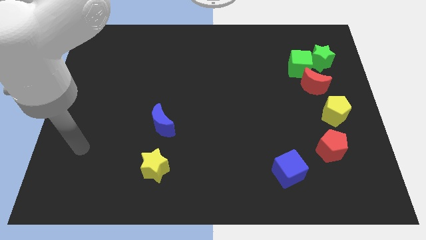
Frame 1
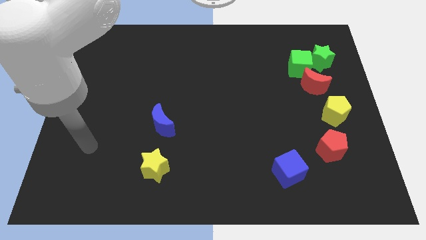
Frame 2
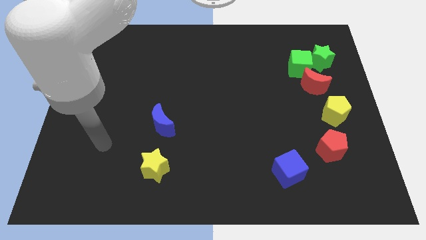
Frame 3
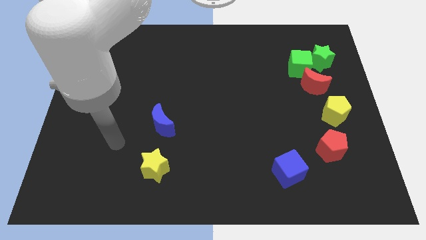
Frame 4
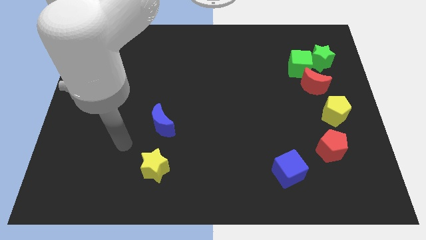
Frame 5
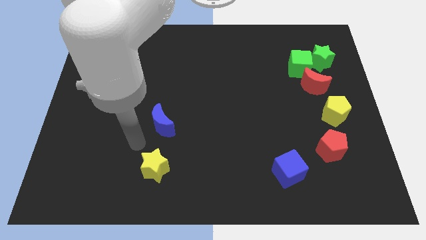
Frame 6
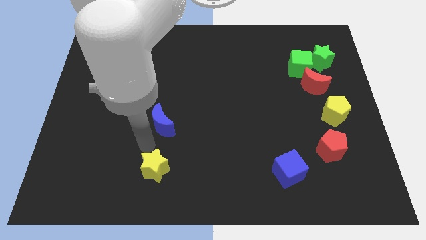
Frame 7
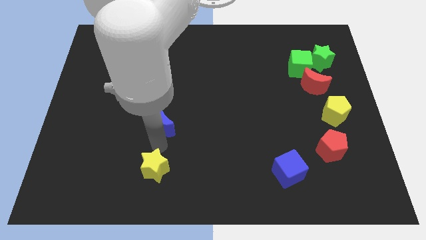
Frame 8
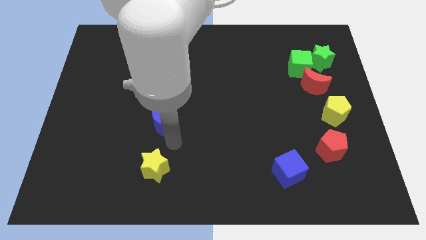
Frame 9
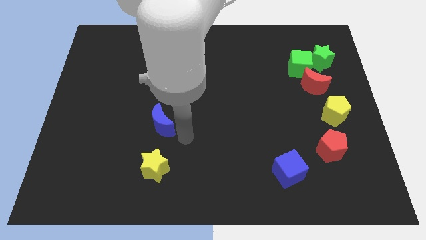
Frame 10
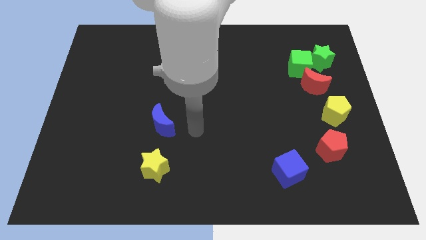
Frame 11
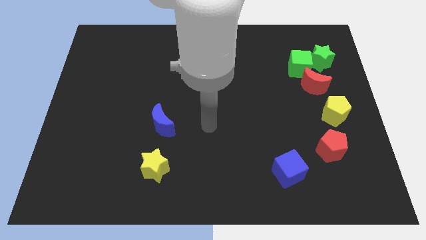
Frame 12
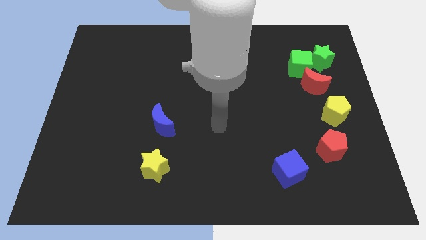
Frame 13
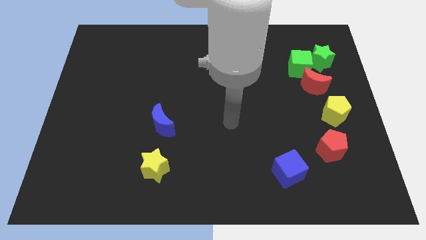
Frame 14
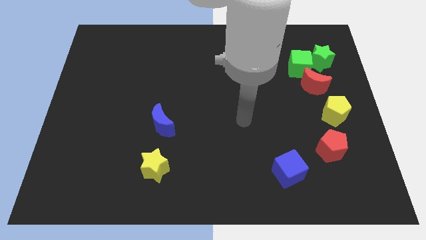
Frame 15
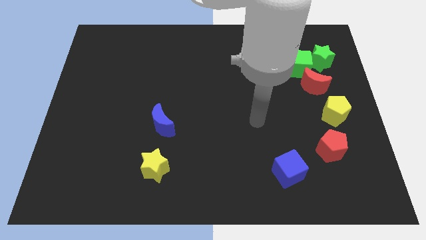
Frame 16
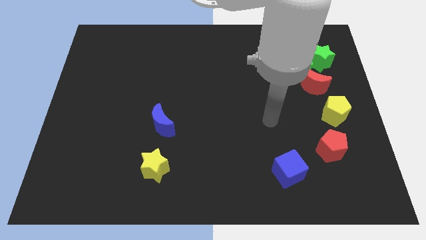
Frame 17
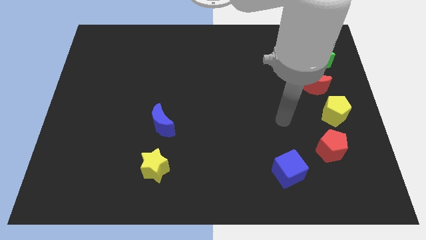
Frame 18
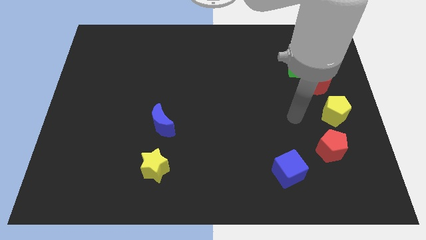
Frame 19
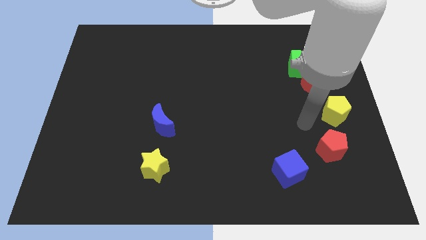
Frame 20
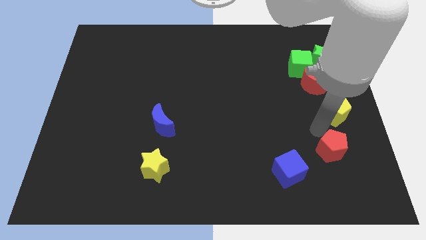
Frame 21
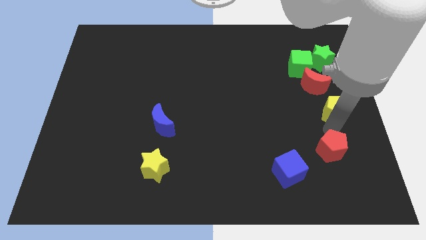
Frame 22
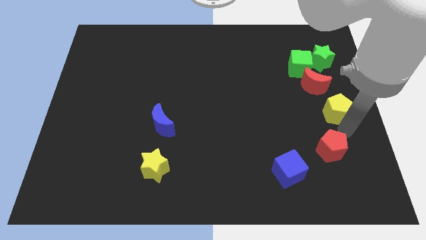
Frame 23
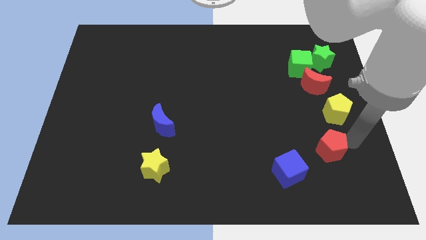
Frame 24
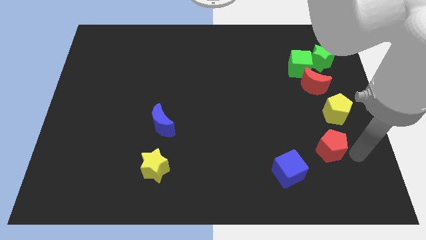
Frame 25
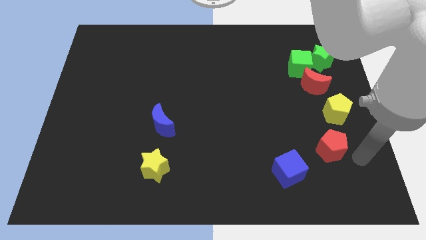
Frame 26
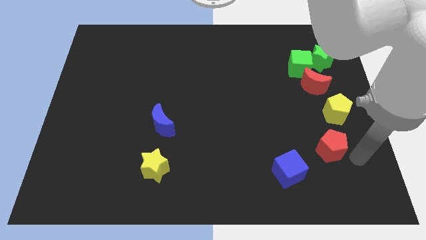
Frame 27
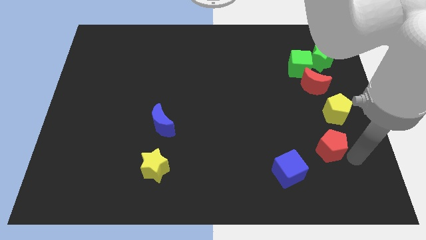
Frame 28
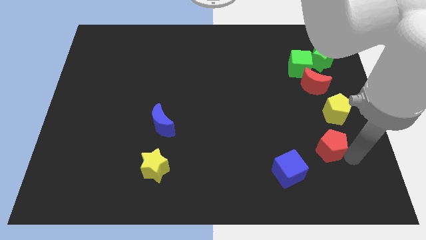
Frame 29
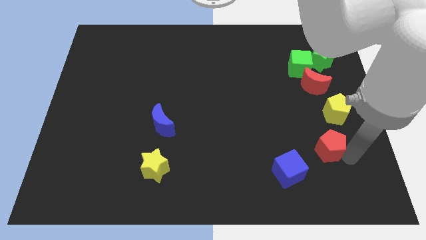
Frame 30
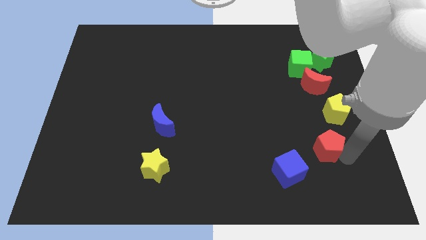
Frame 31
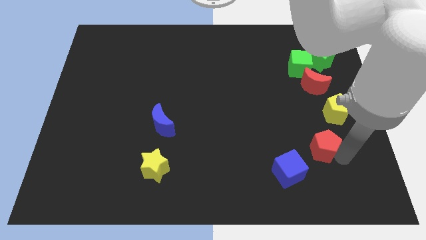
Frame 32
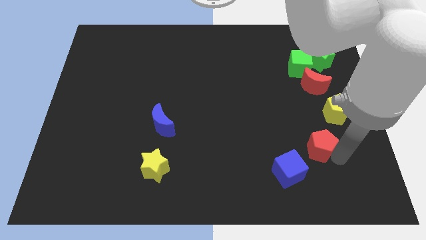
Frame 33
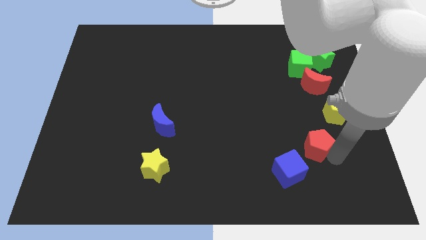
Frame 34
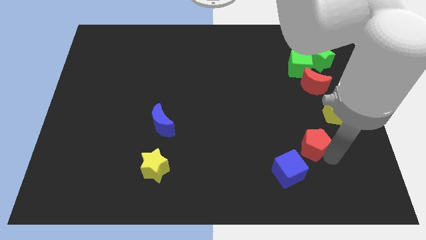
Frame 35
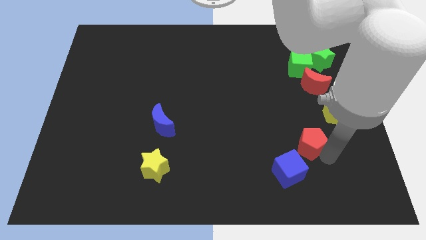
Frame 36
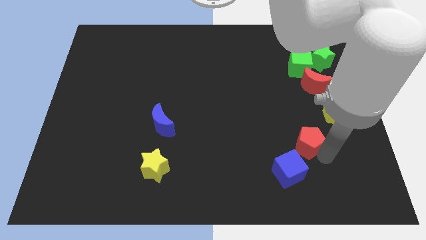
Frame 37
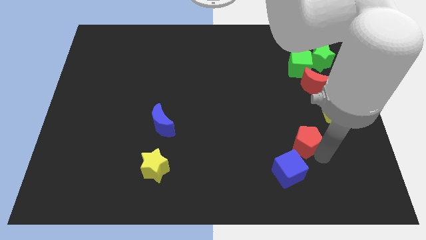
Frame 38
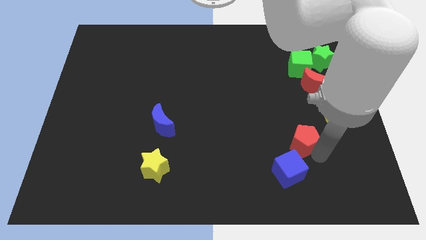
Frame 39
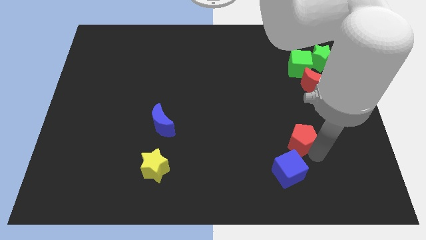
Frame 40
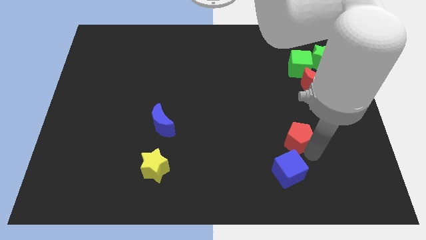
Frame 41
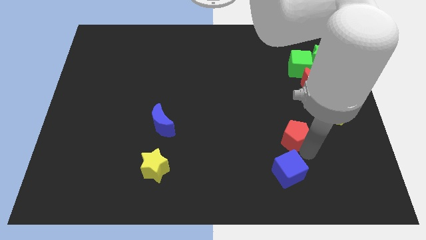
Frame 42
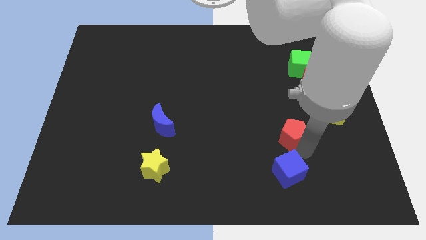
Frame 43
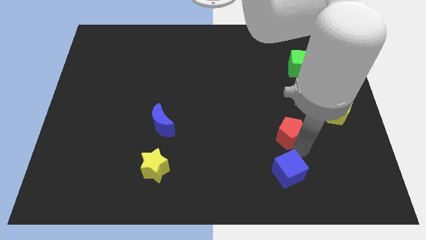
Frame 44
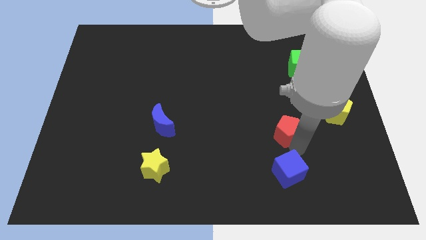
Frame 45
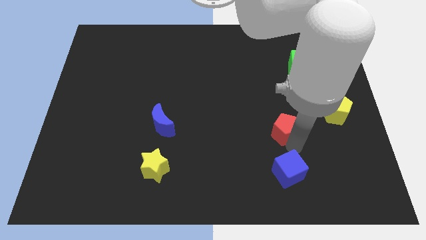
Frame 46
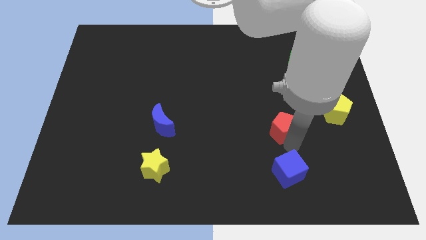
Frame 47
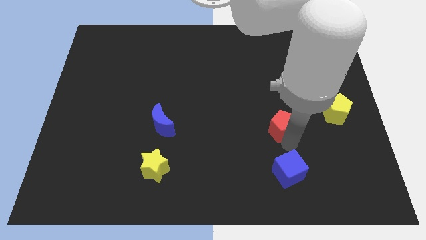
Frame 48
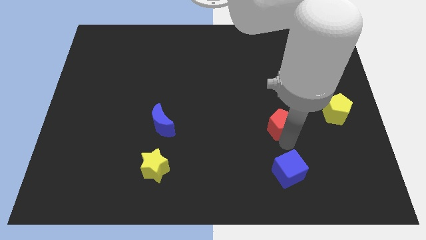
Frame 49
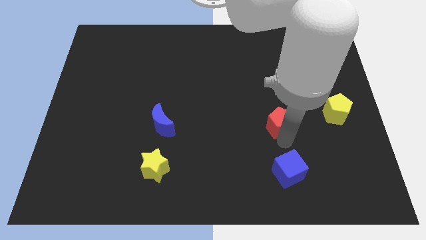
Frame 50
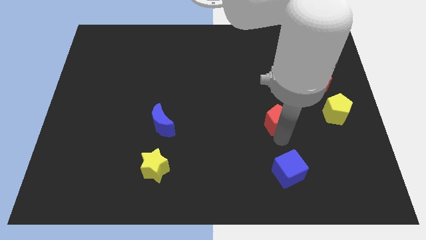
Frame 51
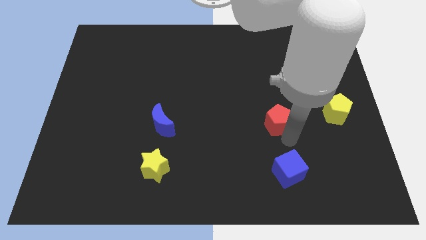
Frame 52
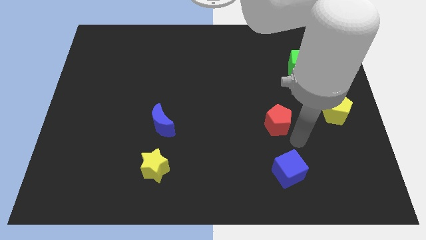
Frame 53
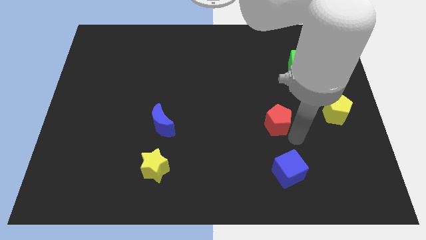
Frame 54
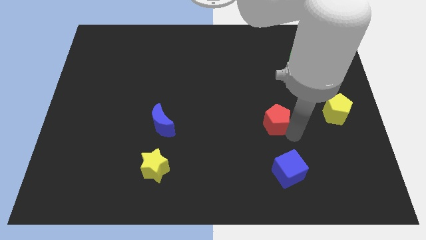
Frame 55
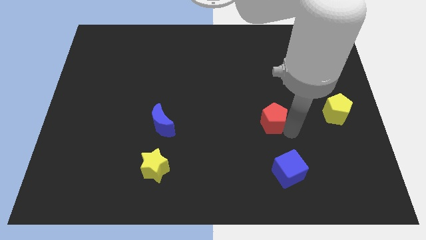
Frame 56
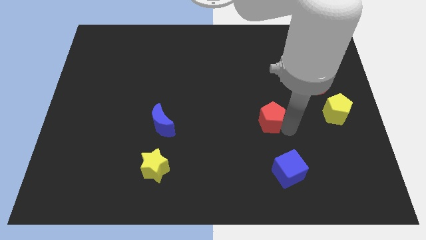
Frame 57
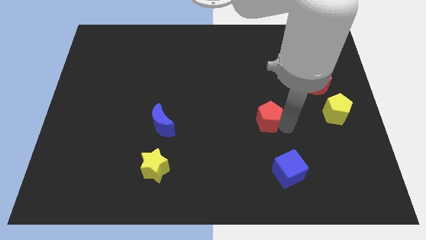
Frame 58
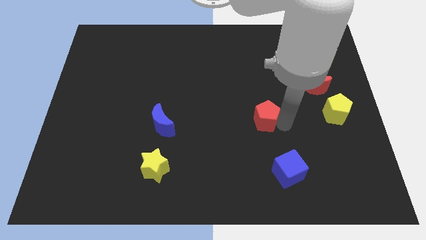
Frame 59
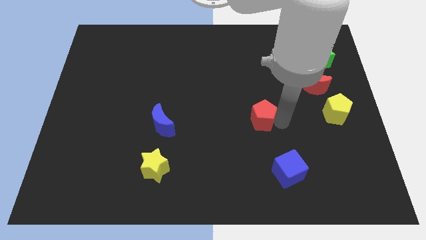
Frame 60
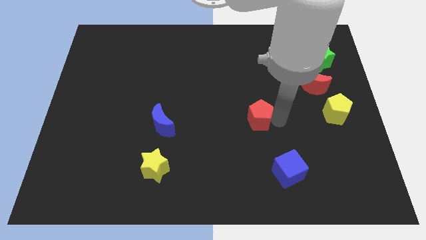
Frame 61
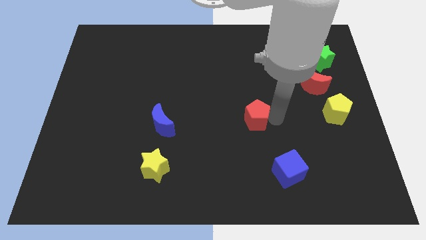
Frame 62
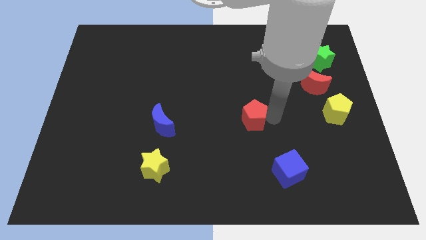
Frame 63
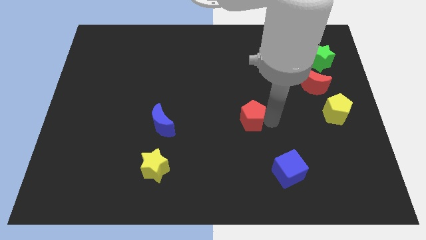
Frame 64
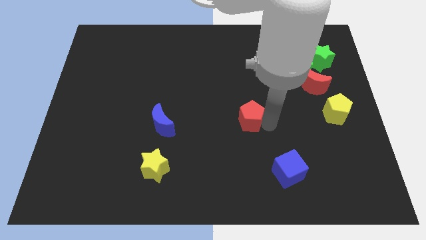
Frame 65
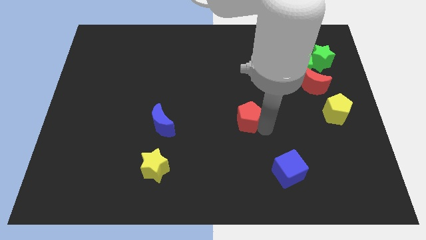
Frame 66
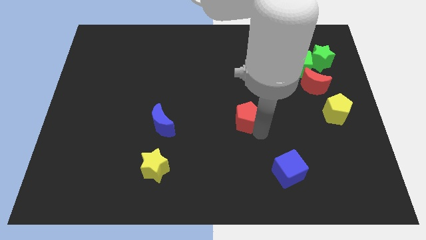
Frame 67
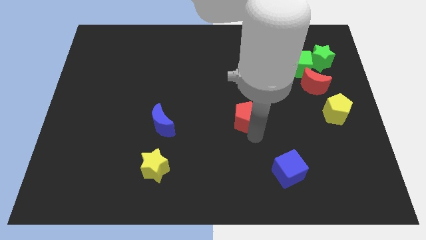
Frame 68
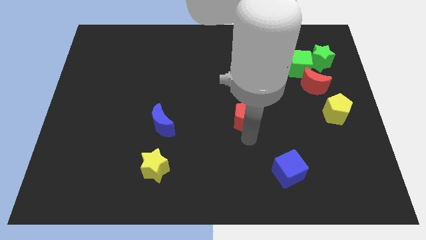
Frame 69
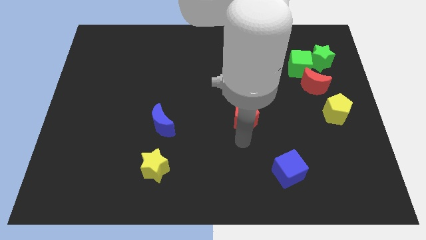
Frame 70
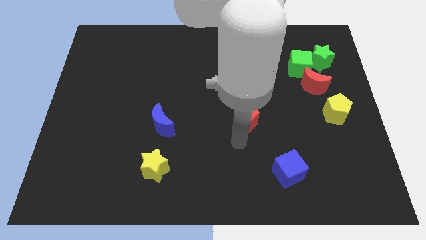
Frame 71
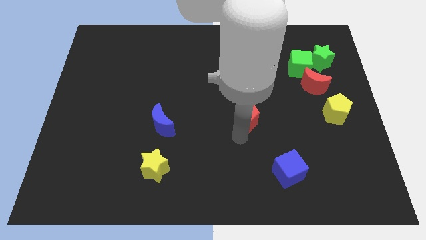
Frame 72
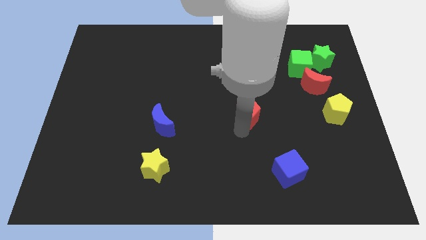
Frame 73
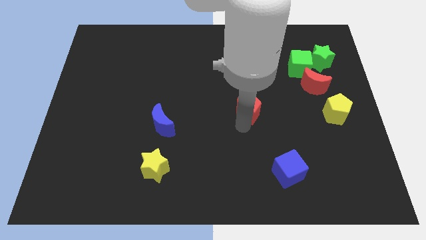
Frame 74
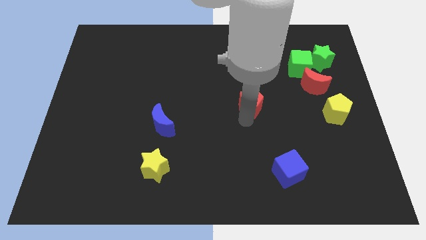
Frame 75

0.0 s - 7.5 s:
push the red pentagon up and to the left

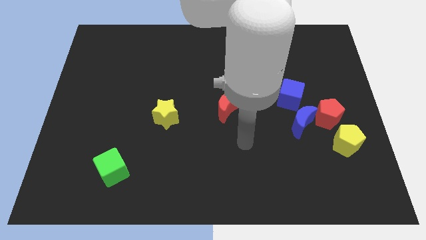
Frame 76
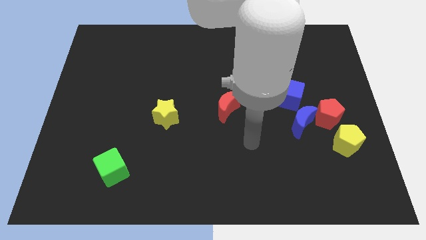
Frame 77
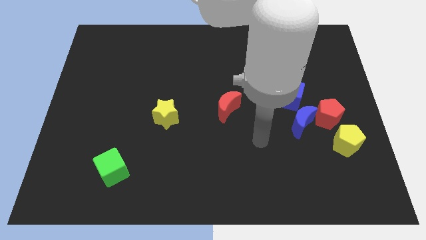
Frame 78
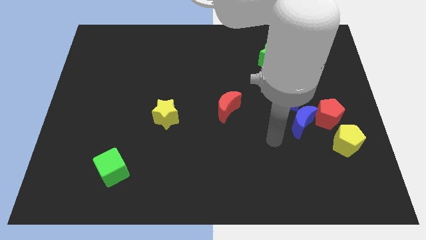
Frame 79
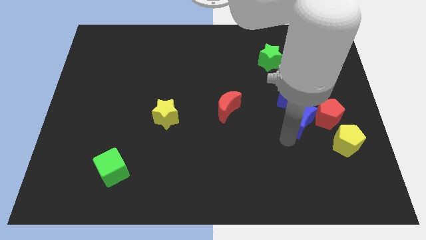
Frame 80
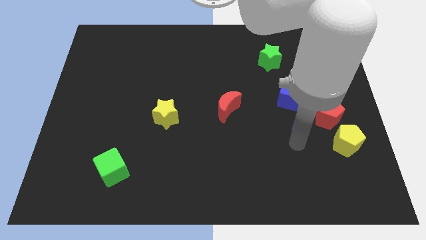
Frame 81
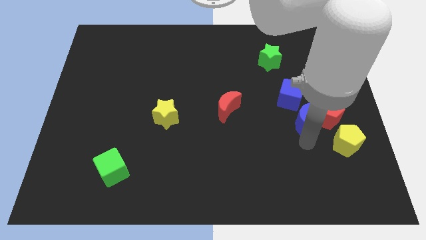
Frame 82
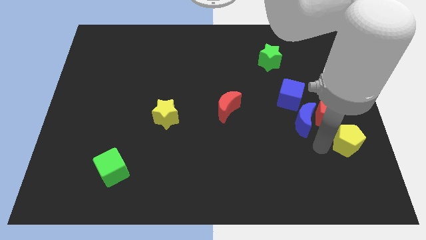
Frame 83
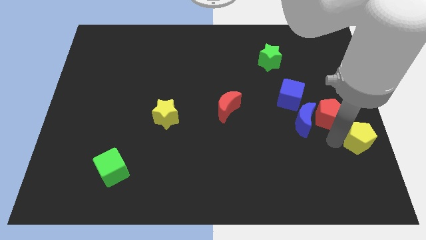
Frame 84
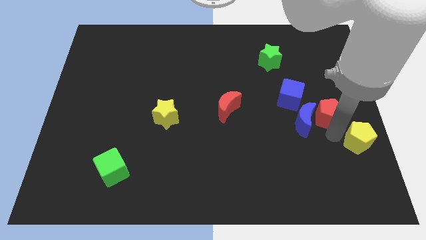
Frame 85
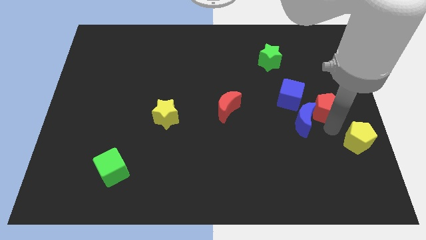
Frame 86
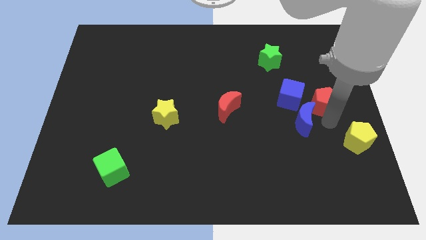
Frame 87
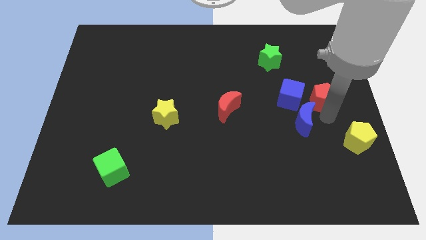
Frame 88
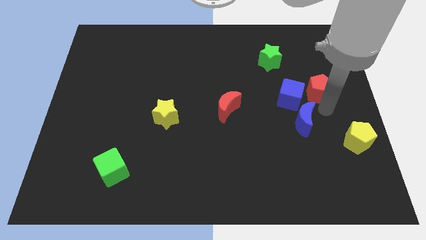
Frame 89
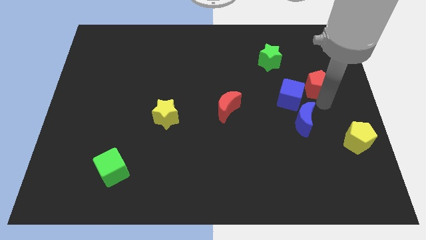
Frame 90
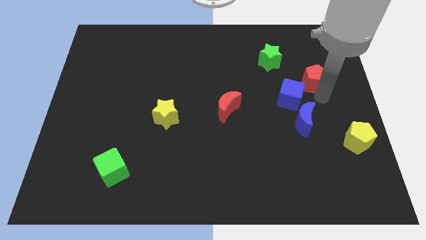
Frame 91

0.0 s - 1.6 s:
move the red pentagon upwards and to the left a little bit
